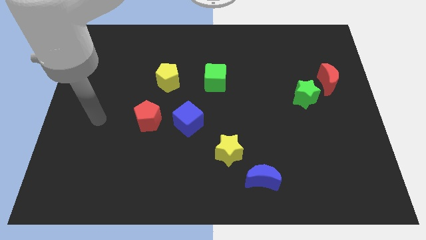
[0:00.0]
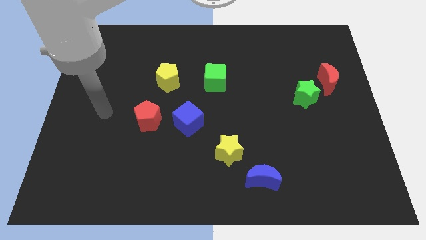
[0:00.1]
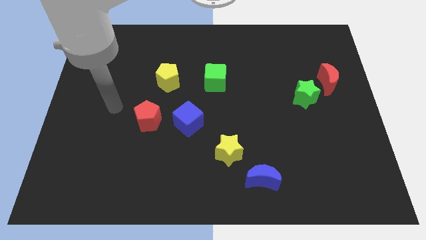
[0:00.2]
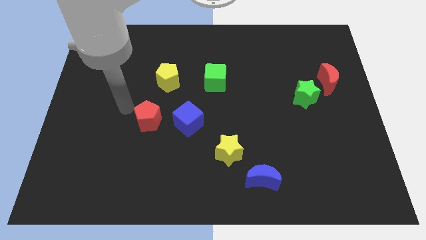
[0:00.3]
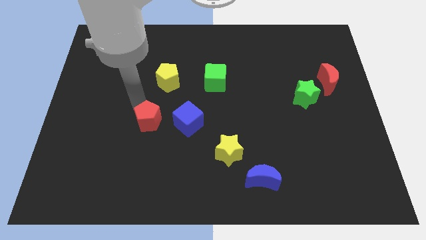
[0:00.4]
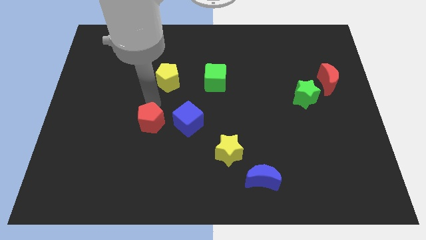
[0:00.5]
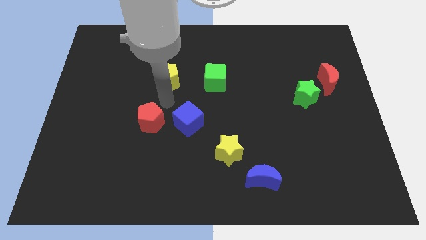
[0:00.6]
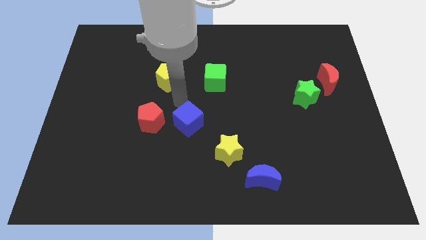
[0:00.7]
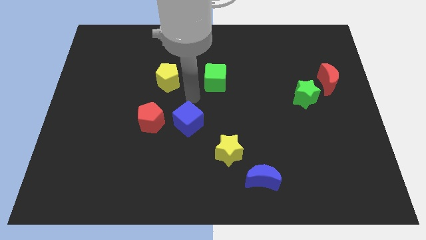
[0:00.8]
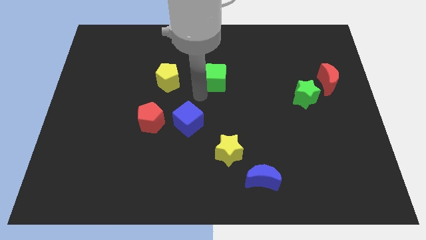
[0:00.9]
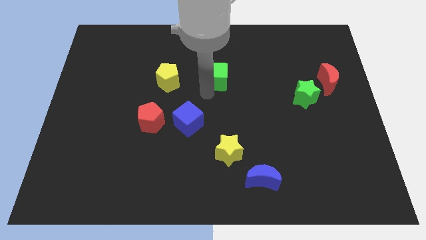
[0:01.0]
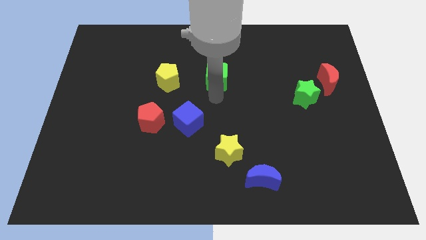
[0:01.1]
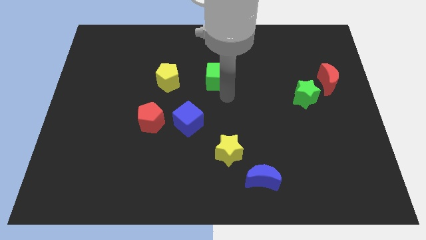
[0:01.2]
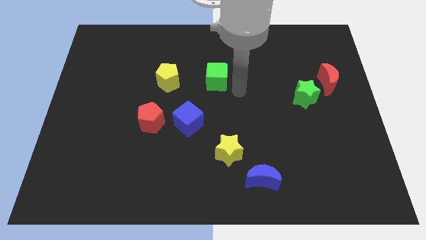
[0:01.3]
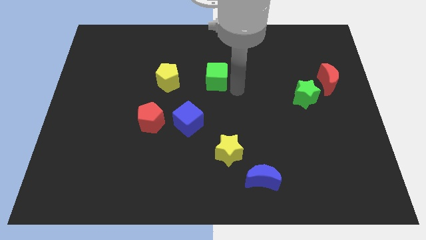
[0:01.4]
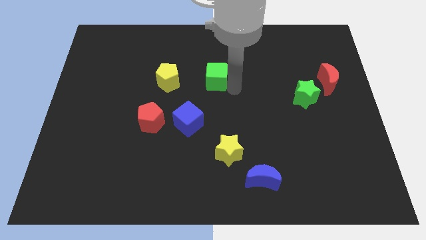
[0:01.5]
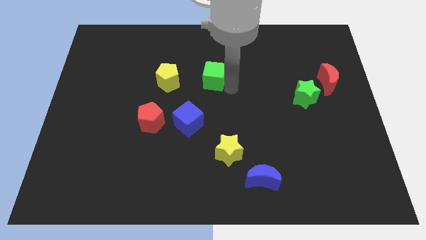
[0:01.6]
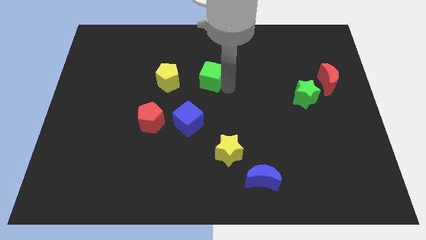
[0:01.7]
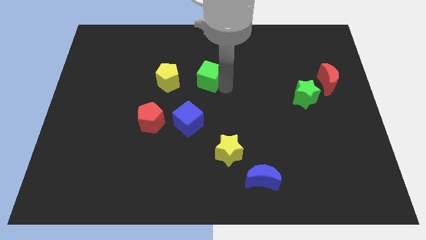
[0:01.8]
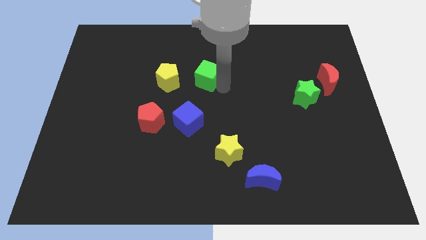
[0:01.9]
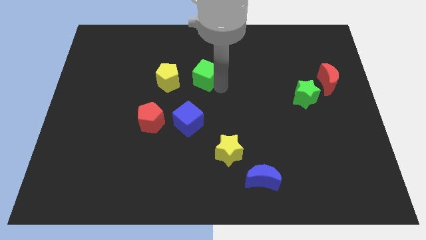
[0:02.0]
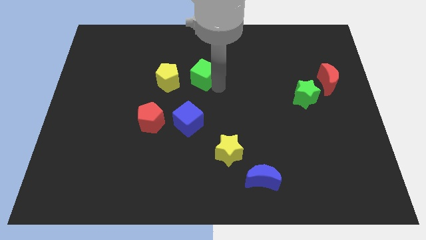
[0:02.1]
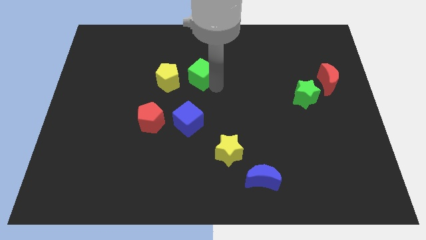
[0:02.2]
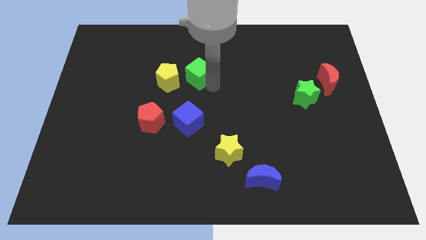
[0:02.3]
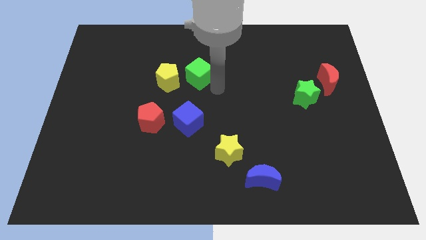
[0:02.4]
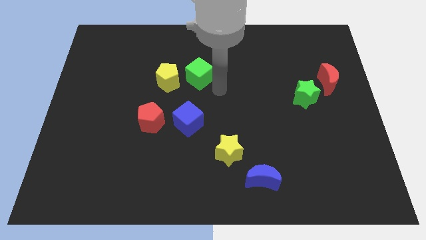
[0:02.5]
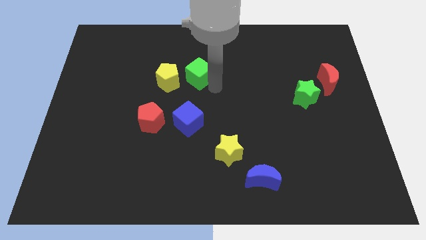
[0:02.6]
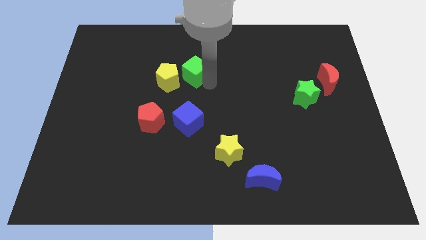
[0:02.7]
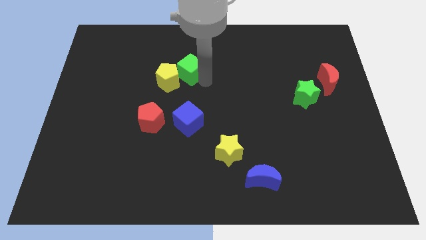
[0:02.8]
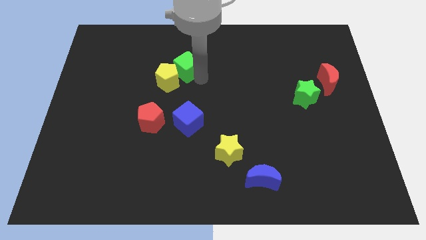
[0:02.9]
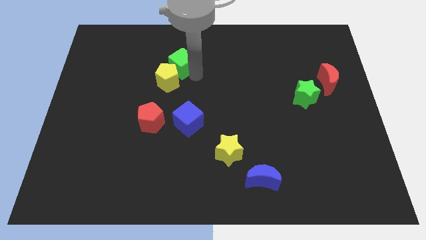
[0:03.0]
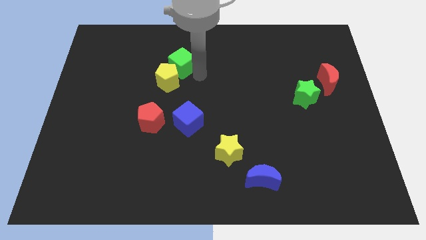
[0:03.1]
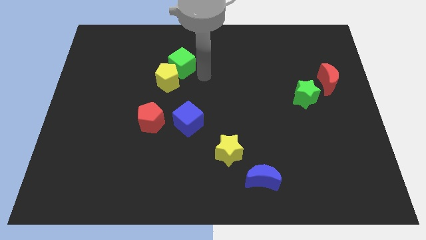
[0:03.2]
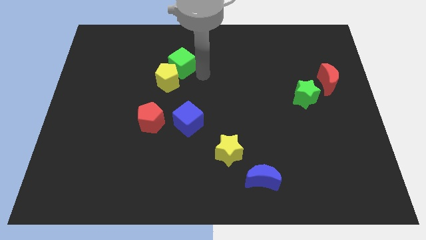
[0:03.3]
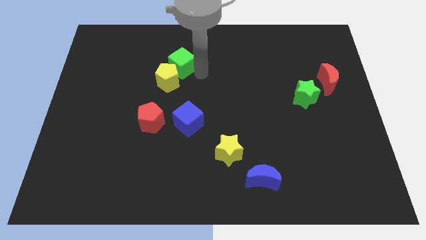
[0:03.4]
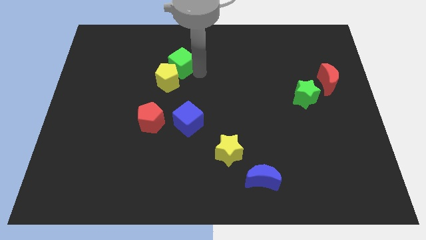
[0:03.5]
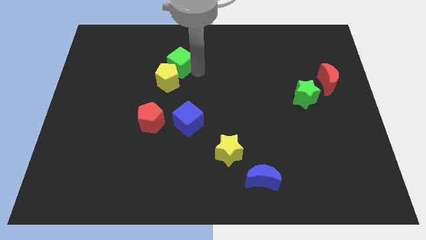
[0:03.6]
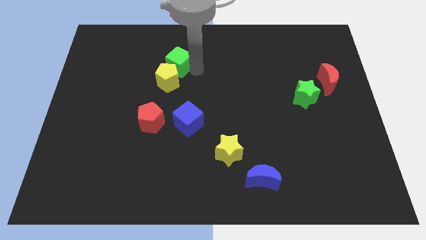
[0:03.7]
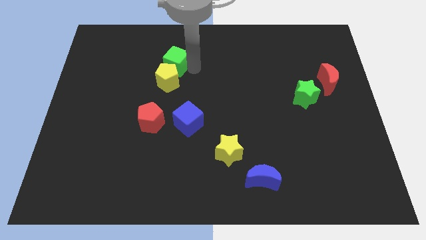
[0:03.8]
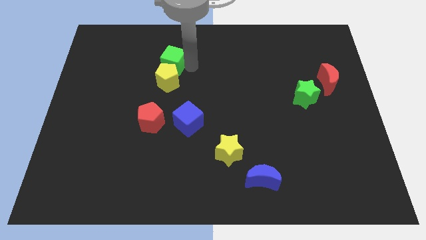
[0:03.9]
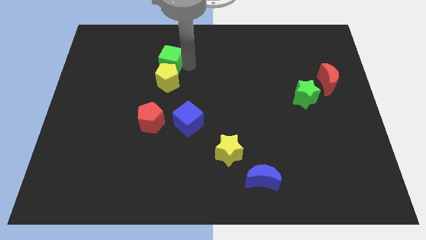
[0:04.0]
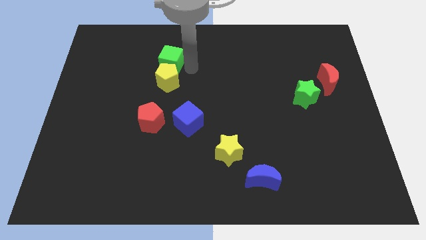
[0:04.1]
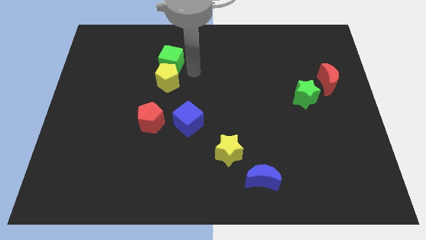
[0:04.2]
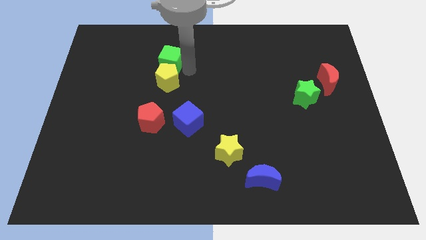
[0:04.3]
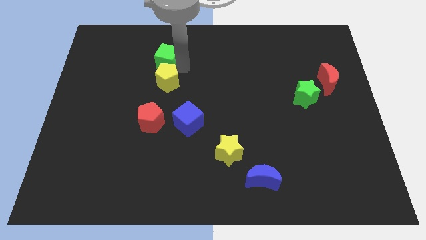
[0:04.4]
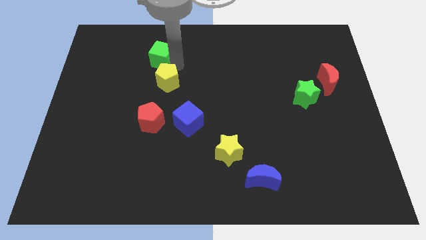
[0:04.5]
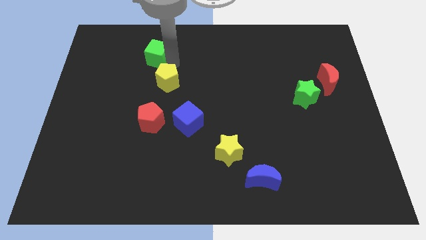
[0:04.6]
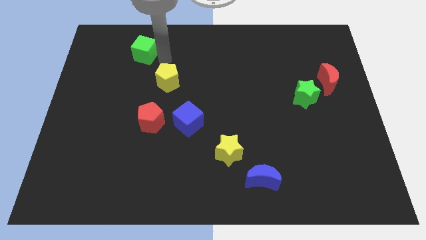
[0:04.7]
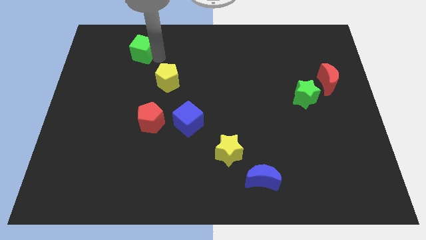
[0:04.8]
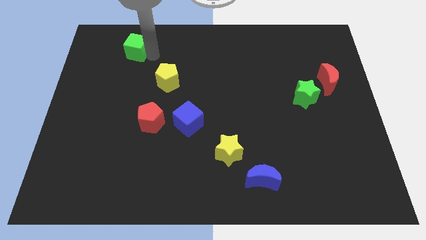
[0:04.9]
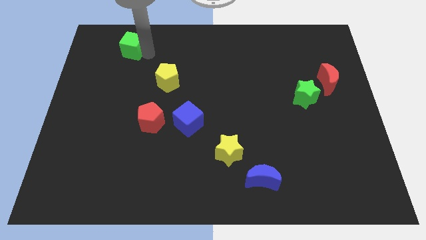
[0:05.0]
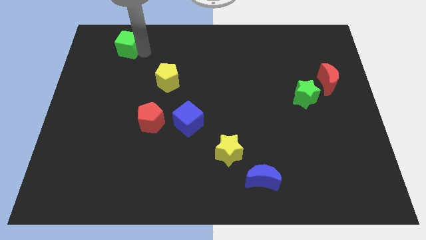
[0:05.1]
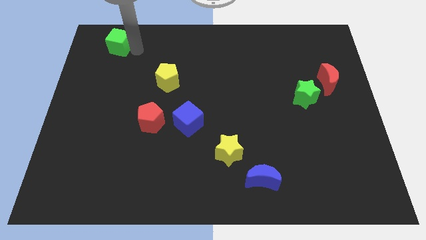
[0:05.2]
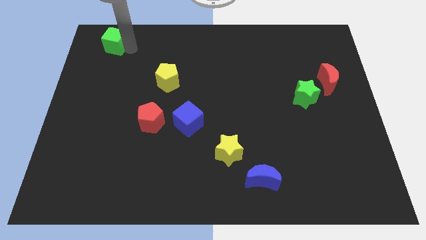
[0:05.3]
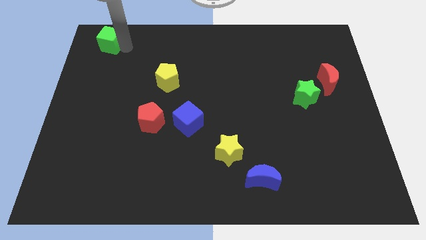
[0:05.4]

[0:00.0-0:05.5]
put the green cube to the top left of the board

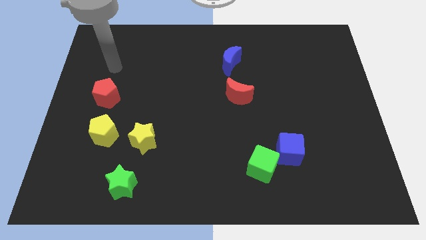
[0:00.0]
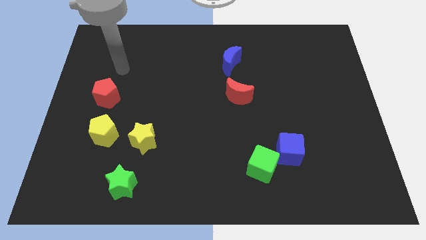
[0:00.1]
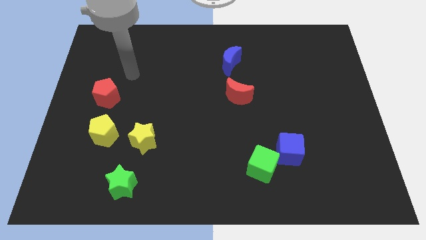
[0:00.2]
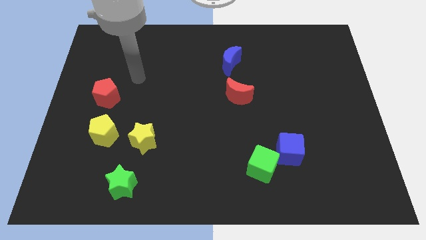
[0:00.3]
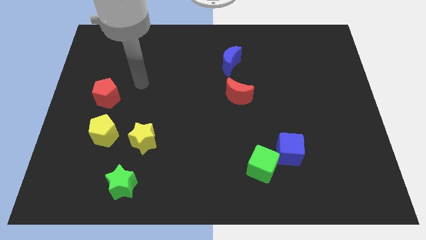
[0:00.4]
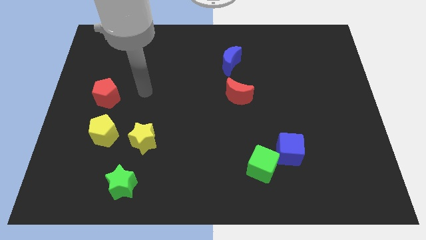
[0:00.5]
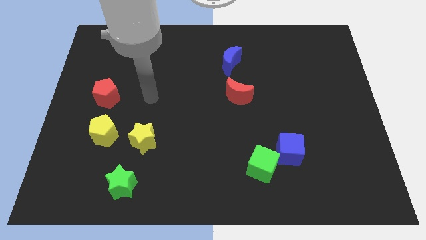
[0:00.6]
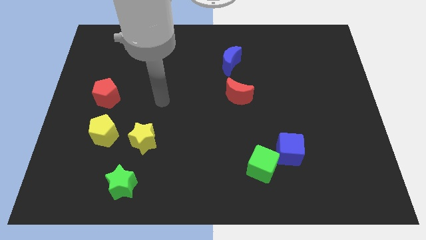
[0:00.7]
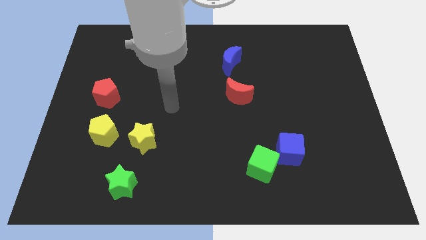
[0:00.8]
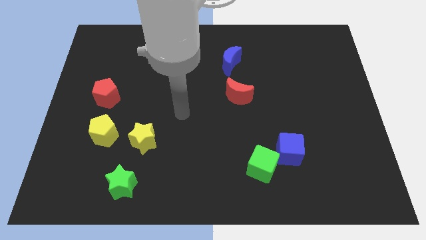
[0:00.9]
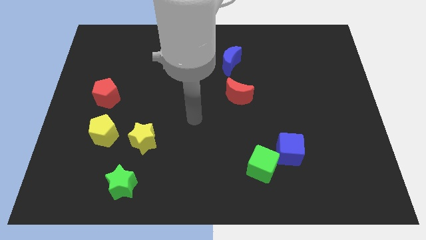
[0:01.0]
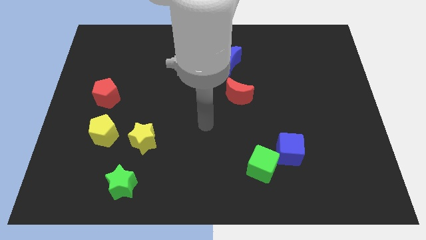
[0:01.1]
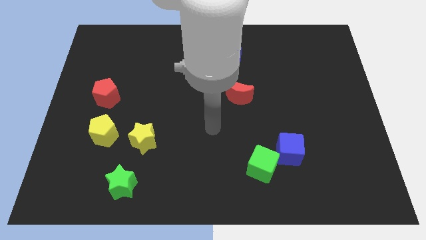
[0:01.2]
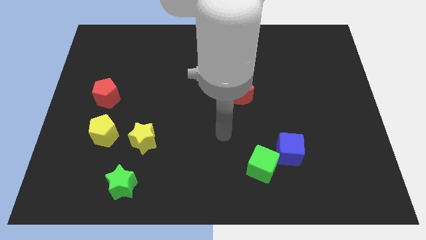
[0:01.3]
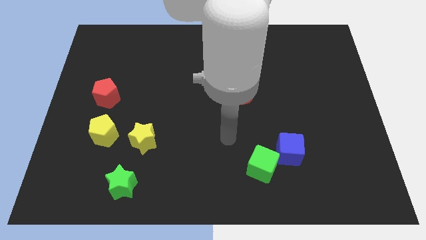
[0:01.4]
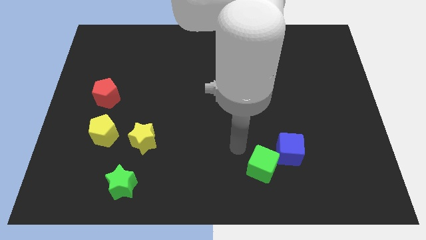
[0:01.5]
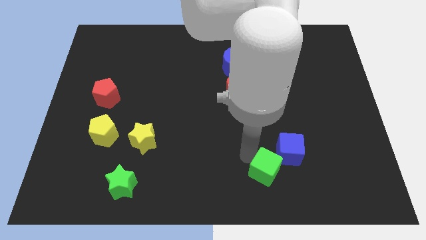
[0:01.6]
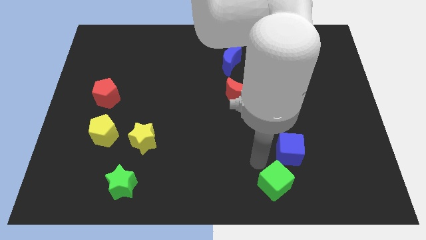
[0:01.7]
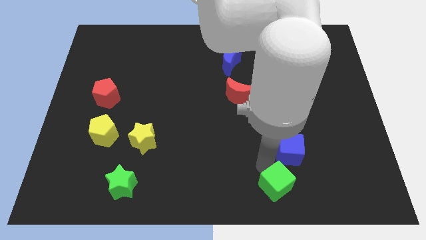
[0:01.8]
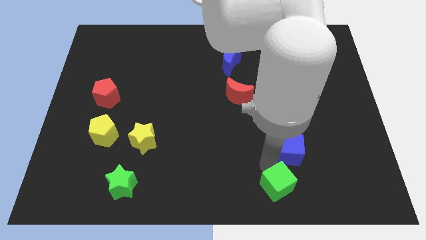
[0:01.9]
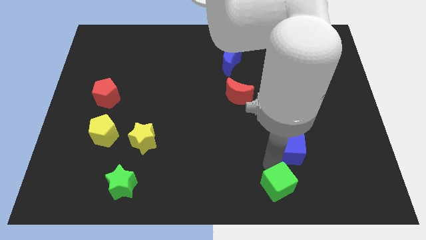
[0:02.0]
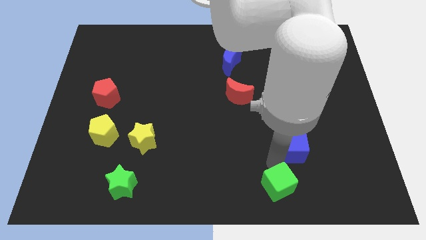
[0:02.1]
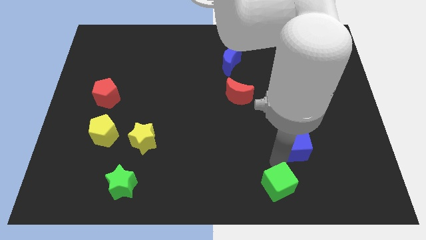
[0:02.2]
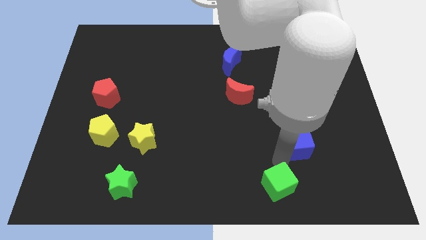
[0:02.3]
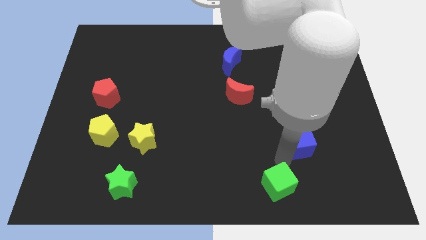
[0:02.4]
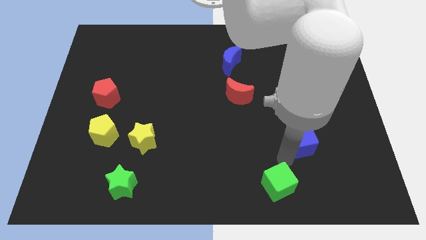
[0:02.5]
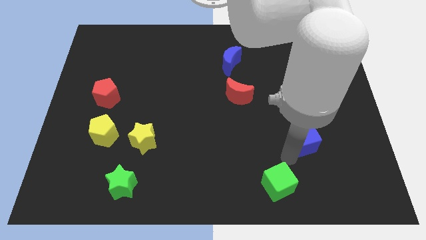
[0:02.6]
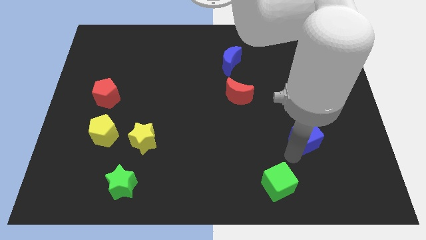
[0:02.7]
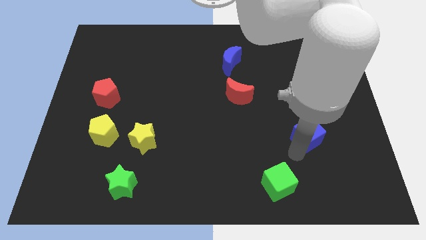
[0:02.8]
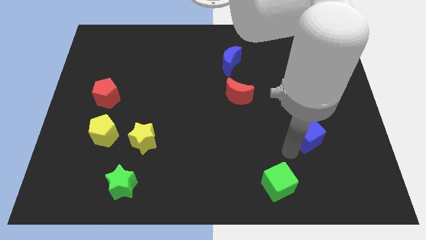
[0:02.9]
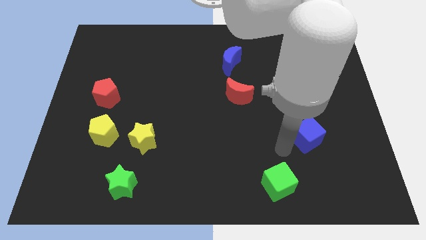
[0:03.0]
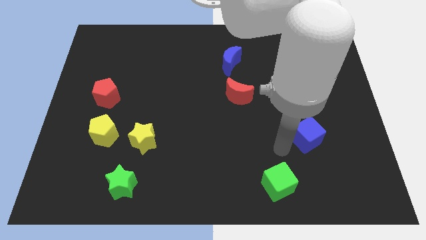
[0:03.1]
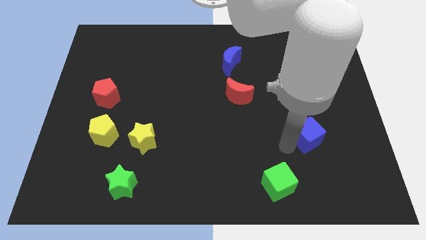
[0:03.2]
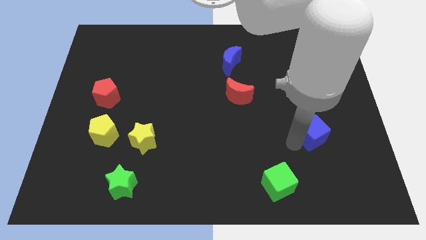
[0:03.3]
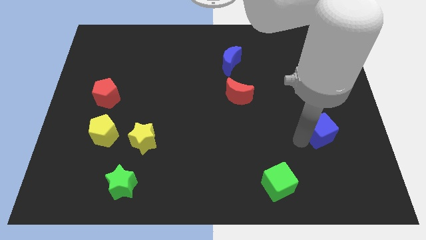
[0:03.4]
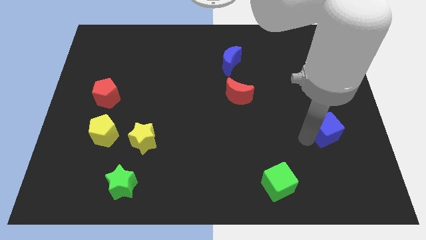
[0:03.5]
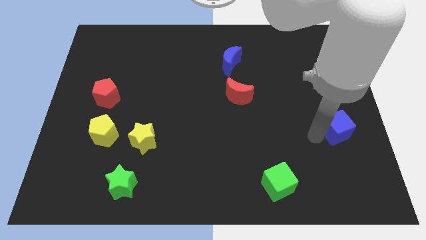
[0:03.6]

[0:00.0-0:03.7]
push the blue cube to the right side of the board
